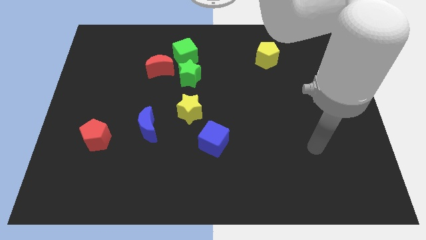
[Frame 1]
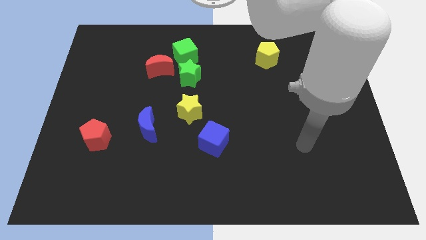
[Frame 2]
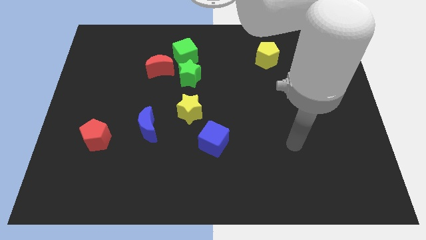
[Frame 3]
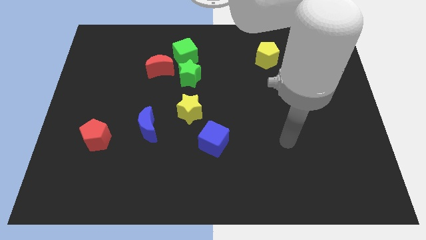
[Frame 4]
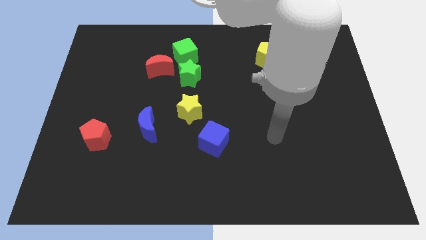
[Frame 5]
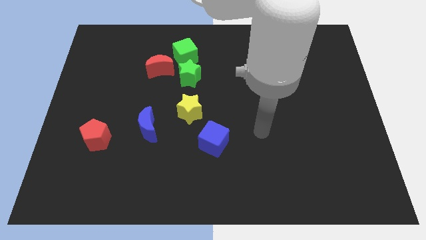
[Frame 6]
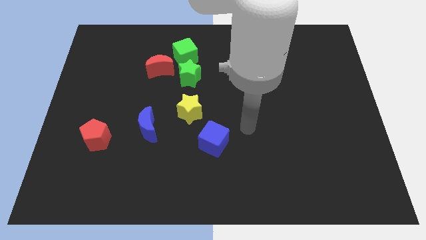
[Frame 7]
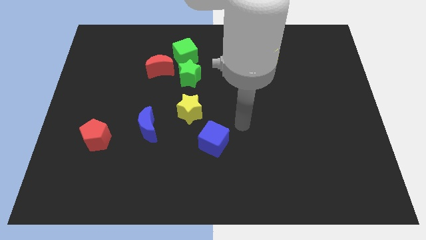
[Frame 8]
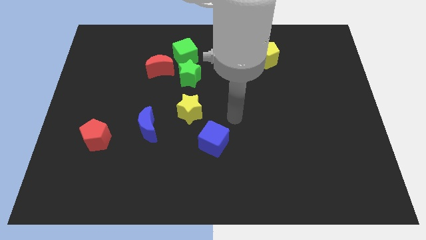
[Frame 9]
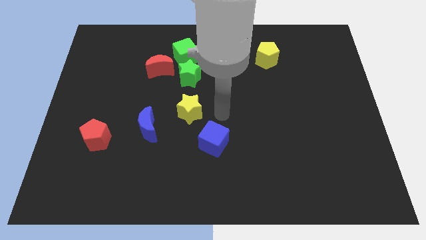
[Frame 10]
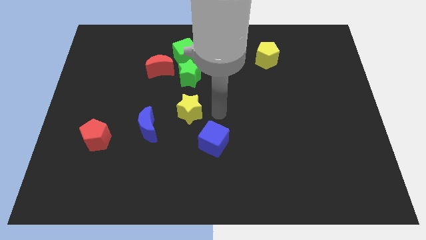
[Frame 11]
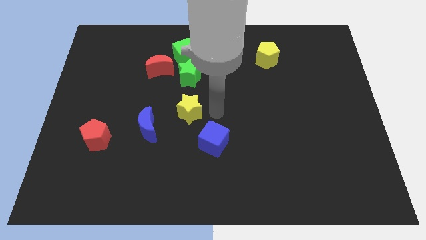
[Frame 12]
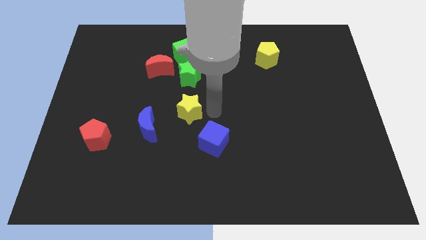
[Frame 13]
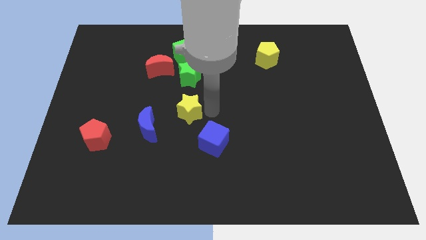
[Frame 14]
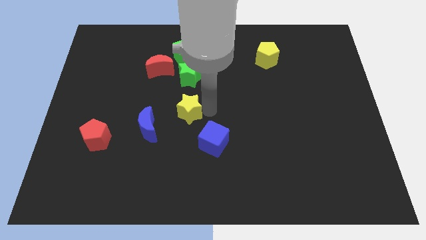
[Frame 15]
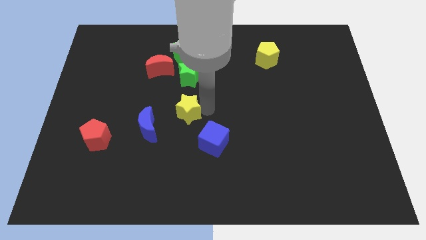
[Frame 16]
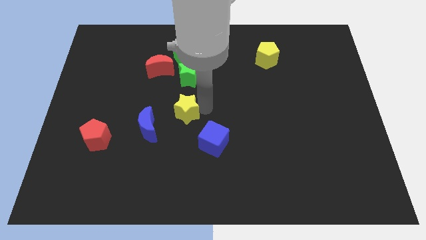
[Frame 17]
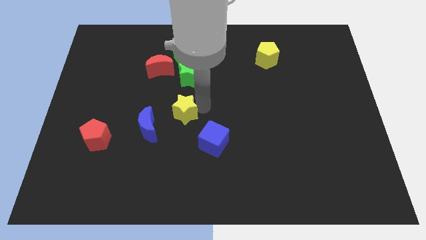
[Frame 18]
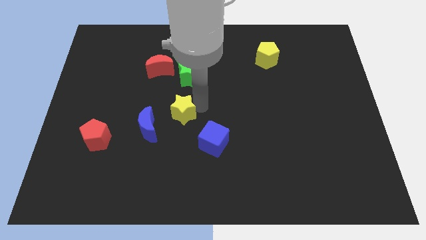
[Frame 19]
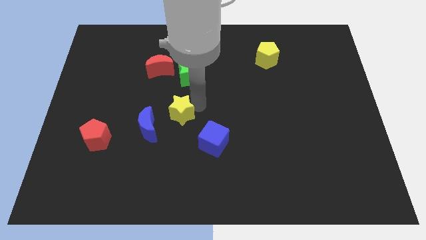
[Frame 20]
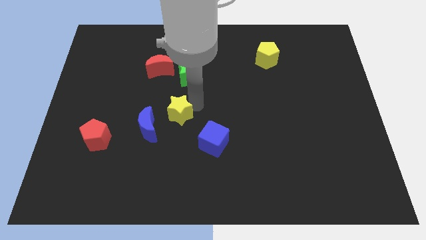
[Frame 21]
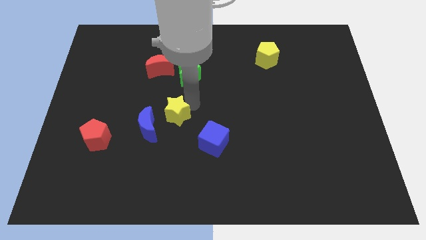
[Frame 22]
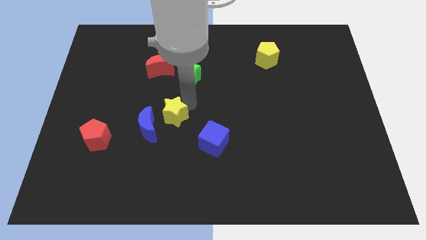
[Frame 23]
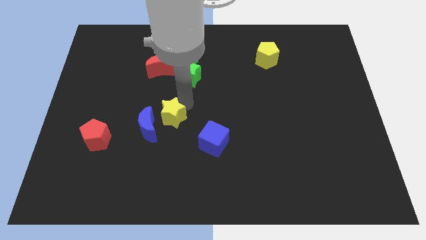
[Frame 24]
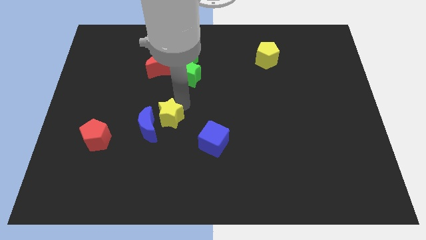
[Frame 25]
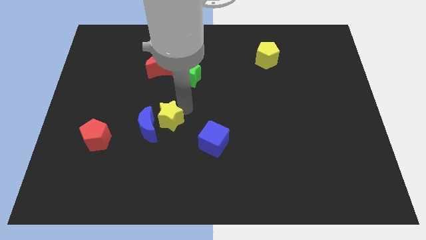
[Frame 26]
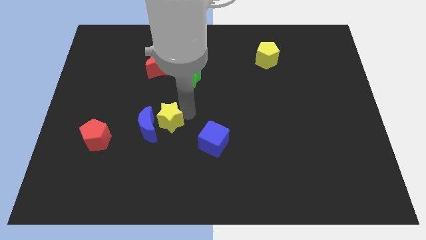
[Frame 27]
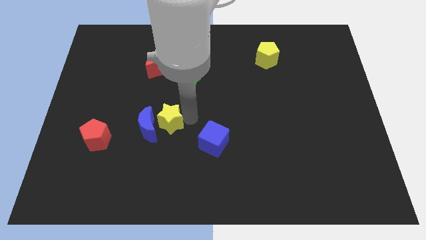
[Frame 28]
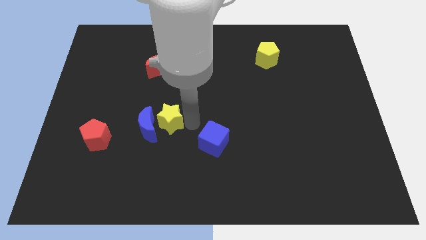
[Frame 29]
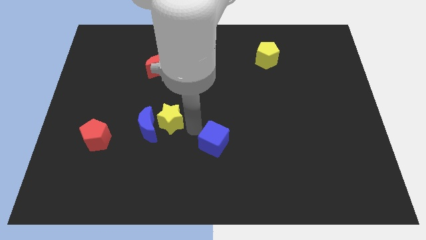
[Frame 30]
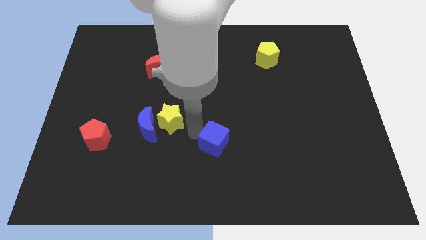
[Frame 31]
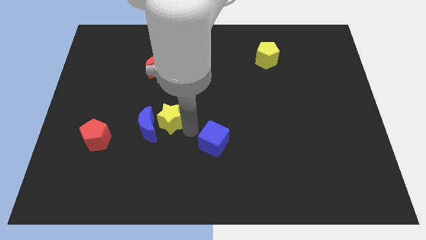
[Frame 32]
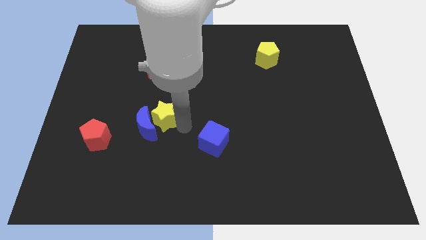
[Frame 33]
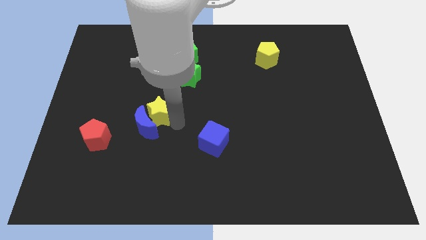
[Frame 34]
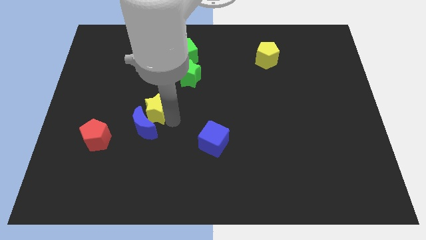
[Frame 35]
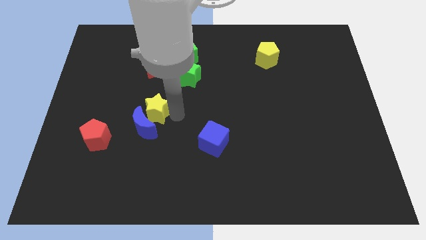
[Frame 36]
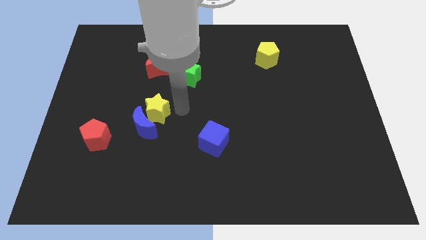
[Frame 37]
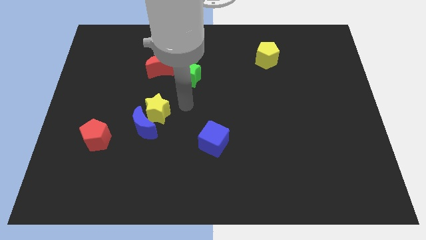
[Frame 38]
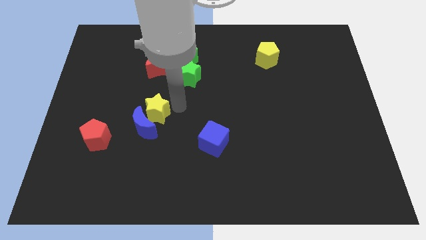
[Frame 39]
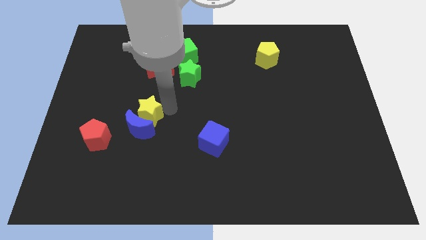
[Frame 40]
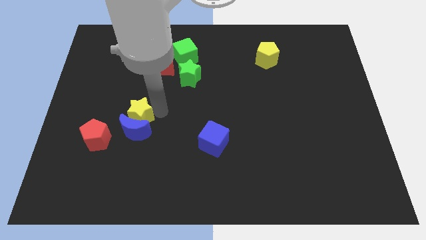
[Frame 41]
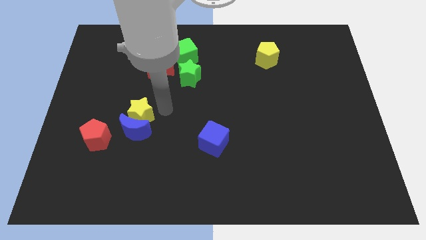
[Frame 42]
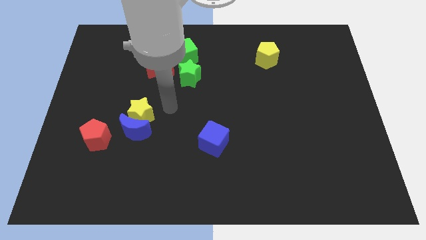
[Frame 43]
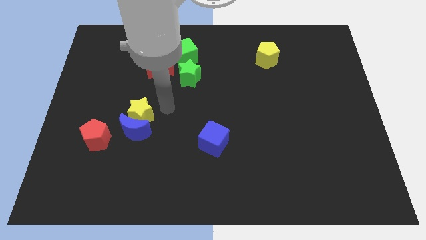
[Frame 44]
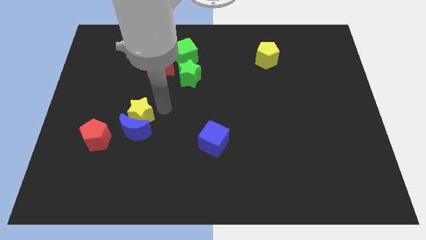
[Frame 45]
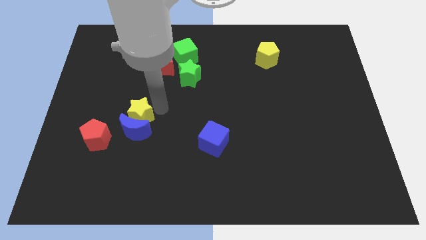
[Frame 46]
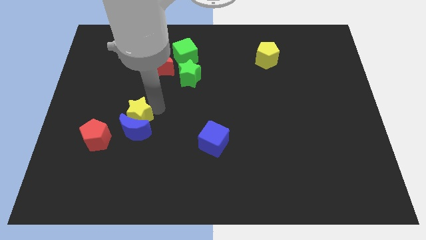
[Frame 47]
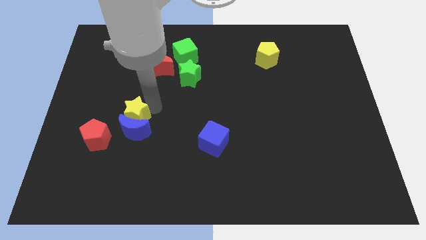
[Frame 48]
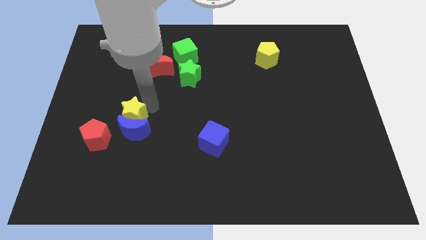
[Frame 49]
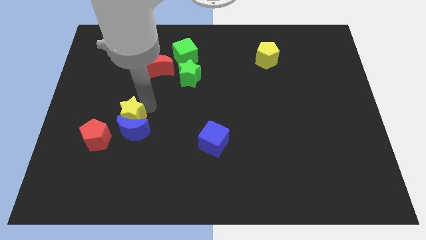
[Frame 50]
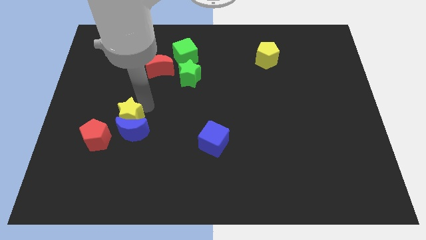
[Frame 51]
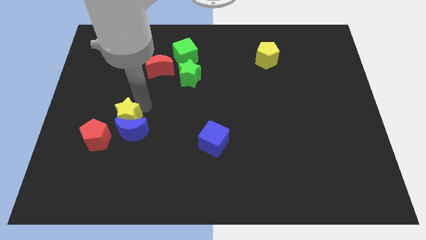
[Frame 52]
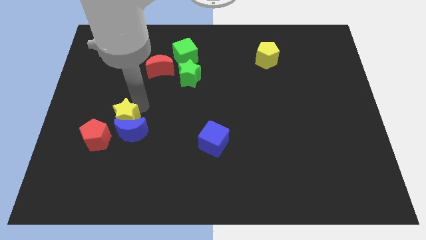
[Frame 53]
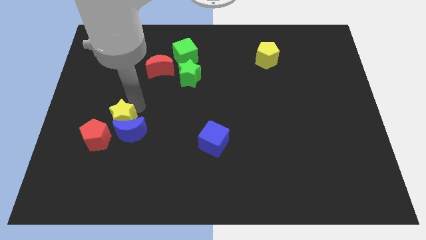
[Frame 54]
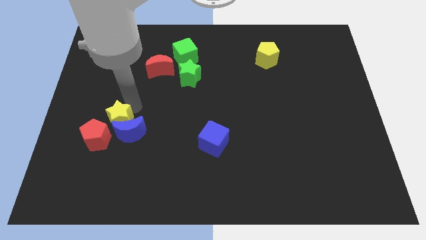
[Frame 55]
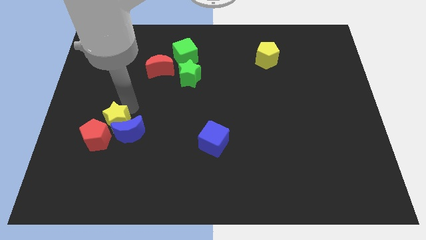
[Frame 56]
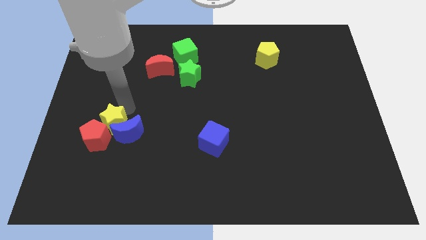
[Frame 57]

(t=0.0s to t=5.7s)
move the yellow star to the red pentagon

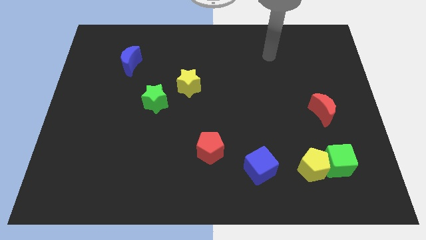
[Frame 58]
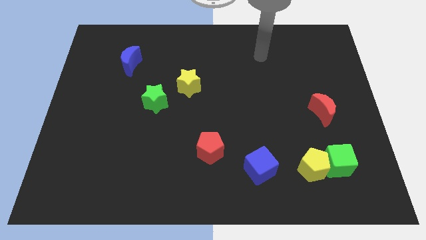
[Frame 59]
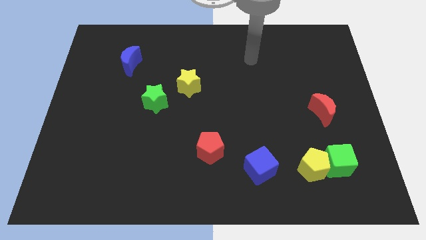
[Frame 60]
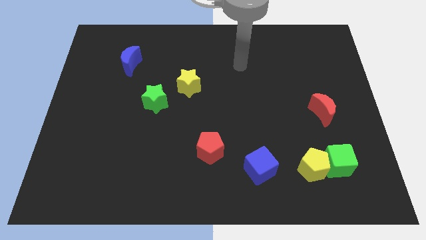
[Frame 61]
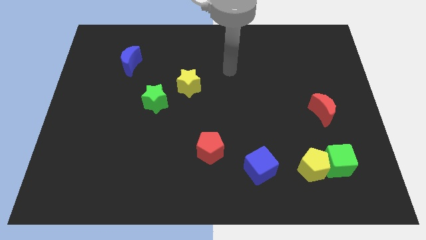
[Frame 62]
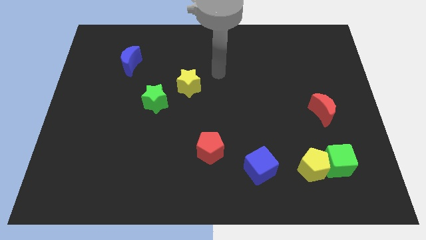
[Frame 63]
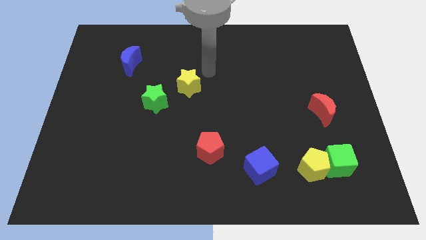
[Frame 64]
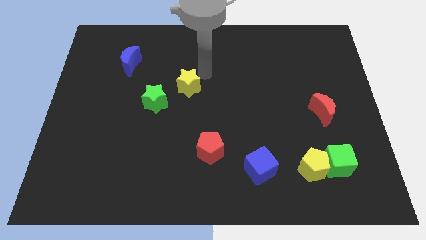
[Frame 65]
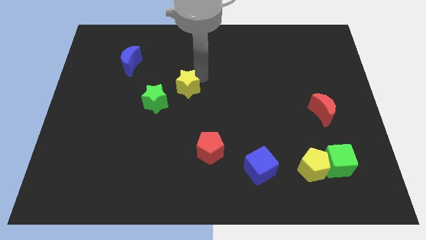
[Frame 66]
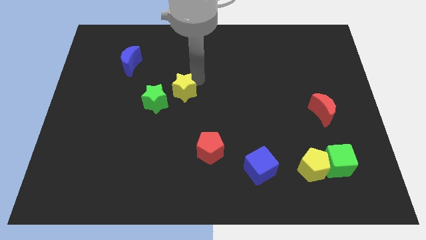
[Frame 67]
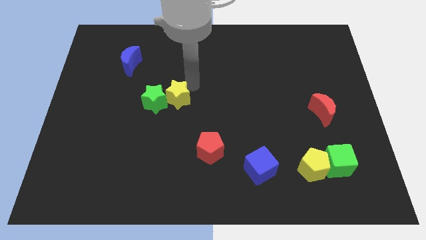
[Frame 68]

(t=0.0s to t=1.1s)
push the yellow star towards the green star
